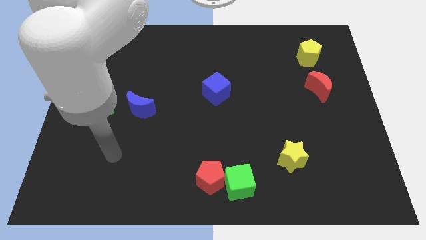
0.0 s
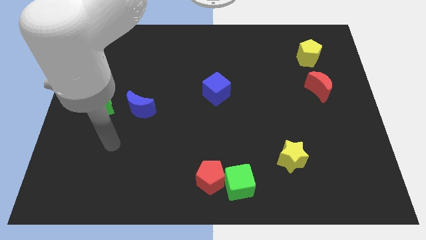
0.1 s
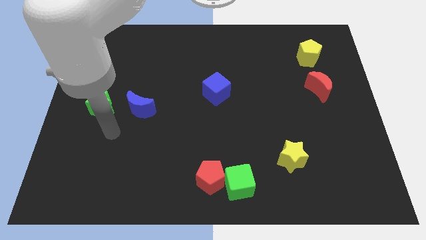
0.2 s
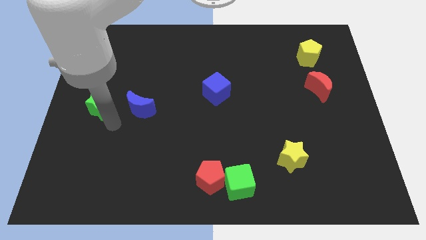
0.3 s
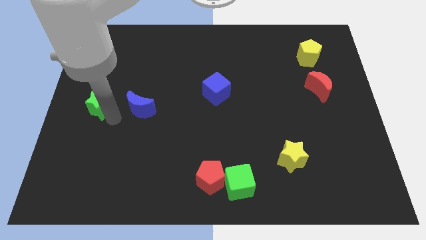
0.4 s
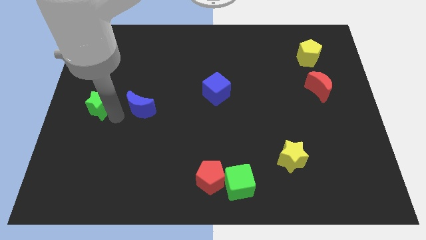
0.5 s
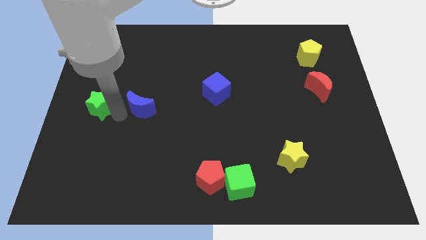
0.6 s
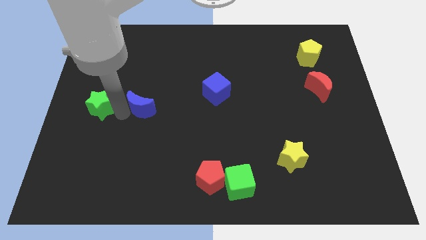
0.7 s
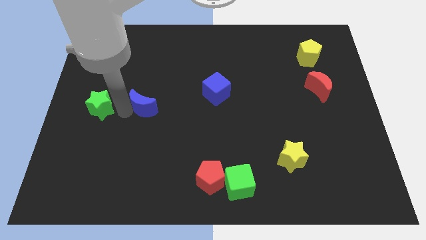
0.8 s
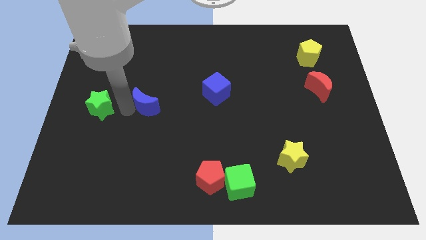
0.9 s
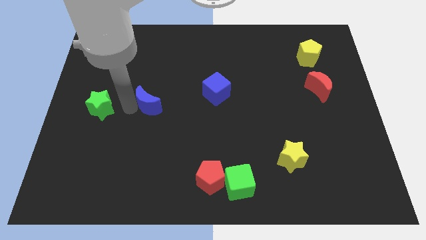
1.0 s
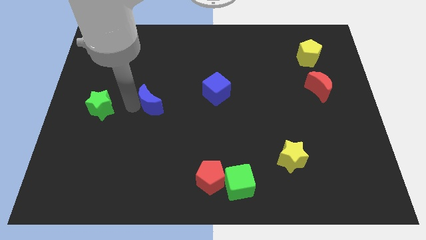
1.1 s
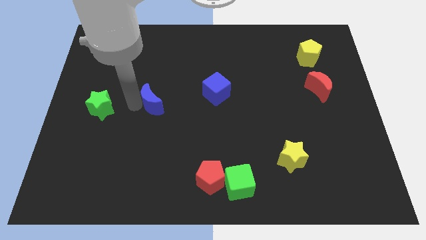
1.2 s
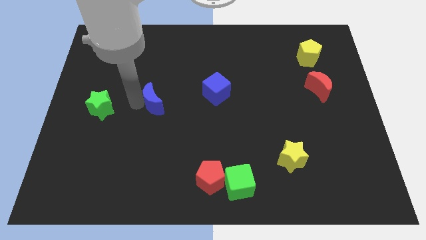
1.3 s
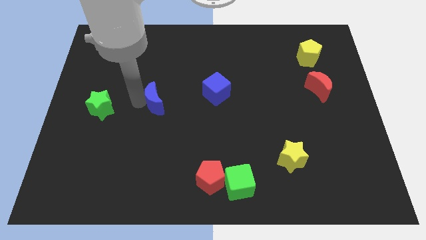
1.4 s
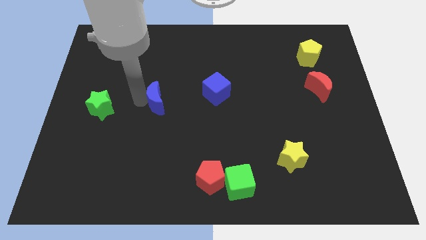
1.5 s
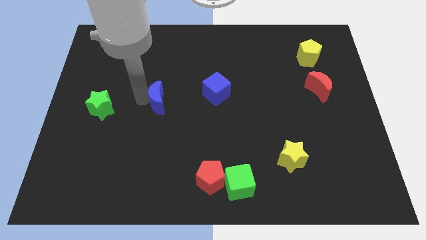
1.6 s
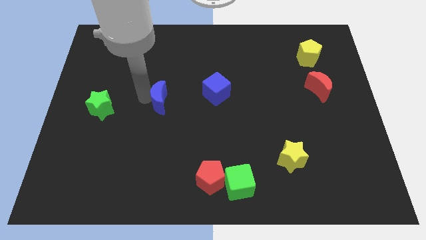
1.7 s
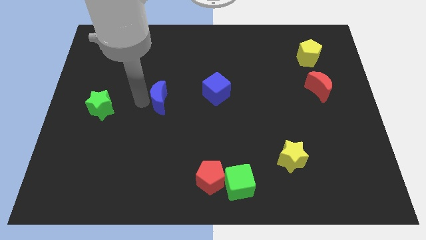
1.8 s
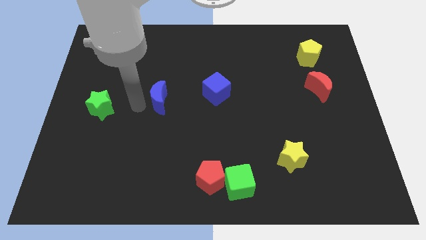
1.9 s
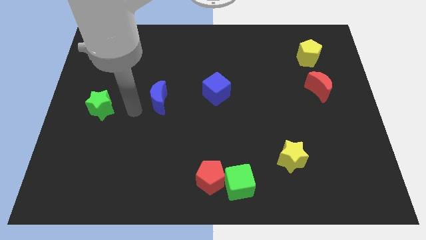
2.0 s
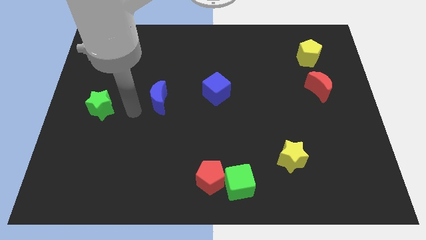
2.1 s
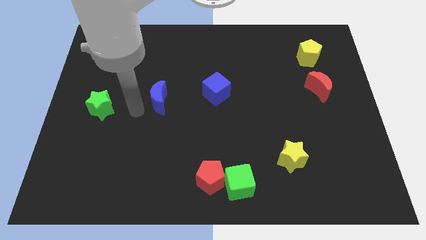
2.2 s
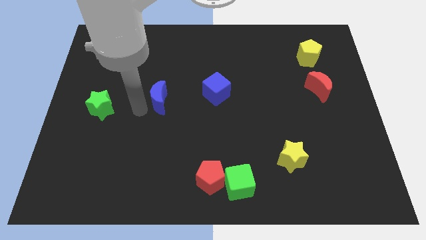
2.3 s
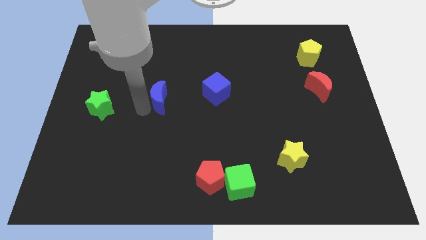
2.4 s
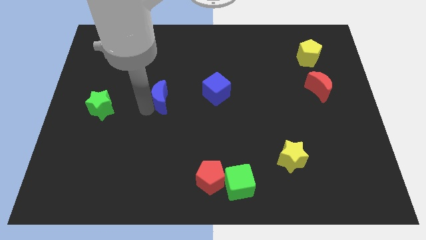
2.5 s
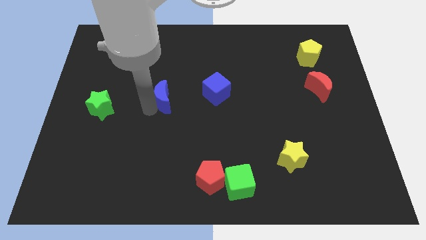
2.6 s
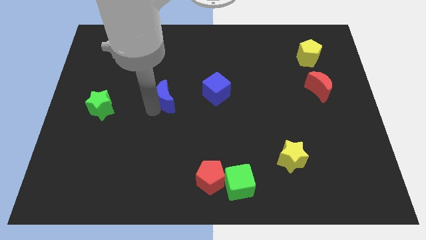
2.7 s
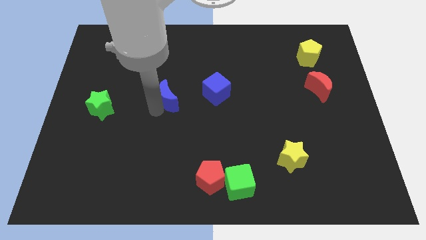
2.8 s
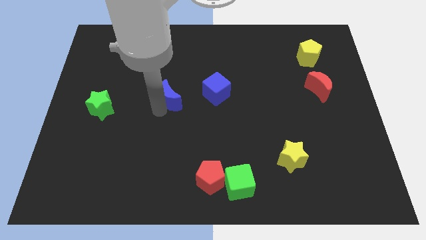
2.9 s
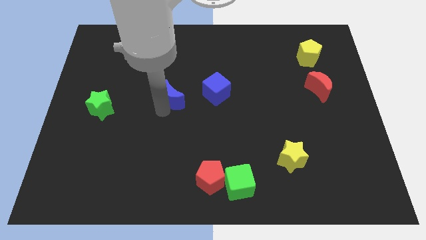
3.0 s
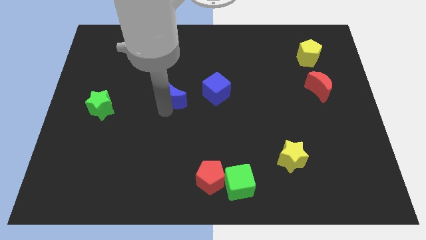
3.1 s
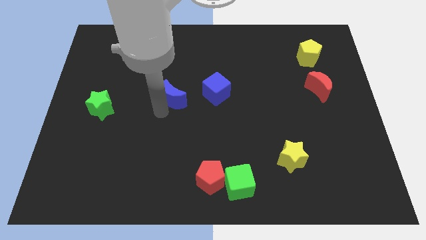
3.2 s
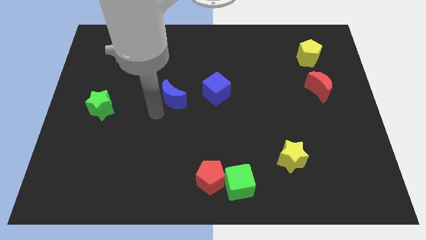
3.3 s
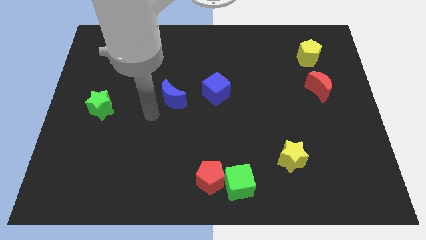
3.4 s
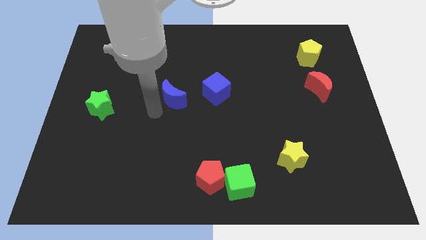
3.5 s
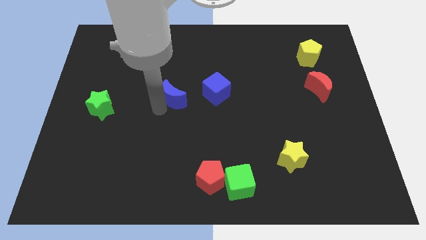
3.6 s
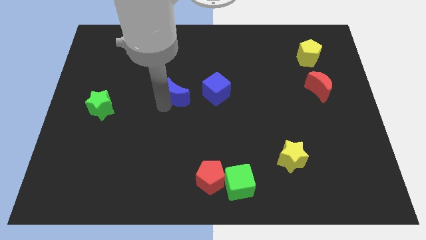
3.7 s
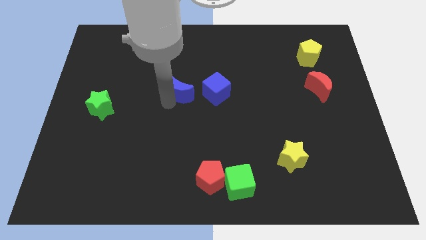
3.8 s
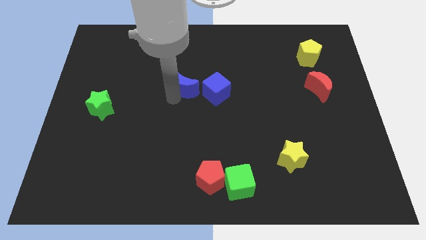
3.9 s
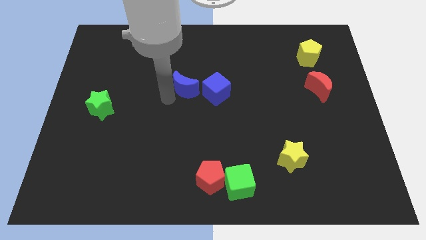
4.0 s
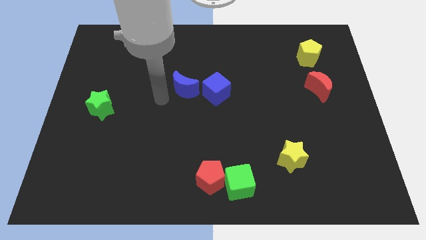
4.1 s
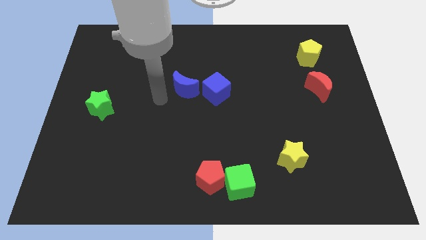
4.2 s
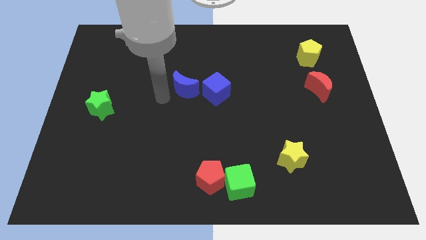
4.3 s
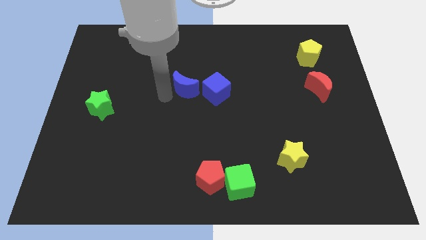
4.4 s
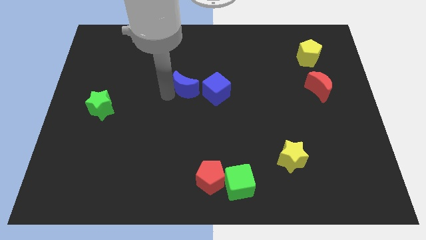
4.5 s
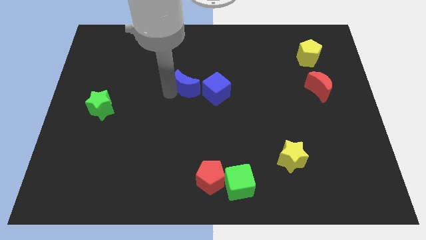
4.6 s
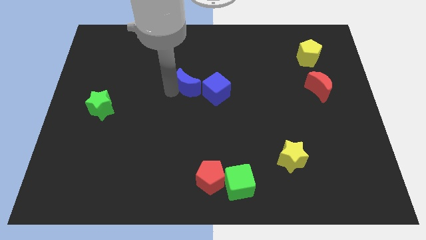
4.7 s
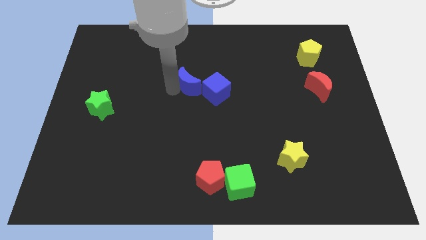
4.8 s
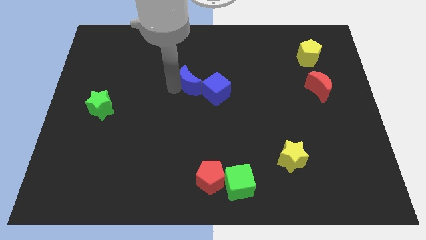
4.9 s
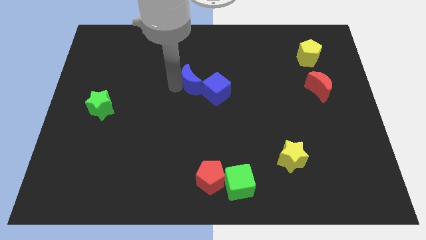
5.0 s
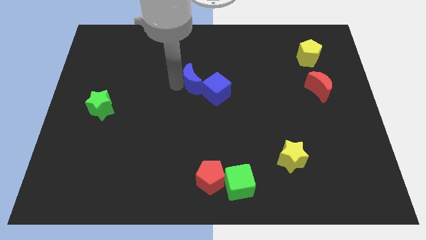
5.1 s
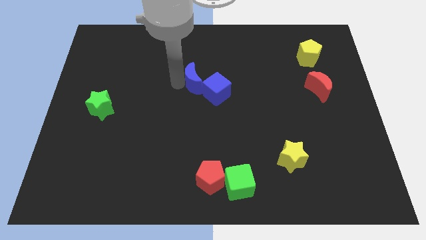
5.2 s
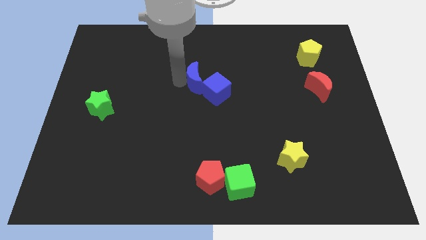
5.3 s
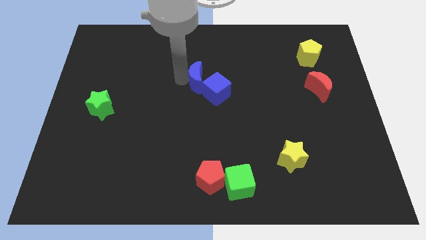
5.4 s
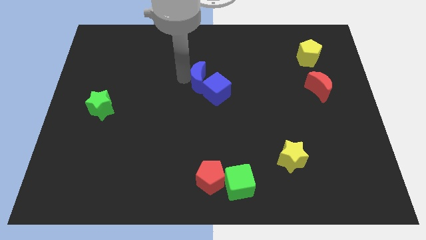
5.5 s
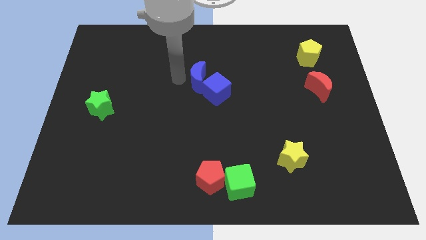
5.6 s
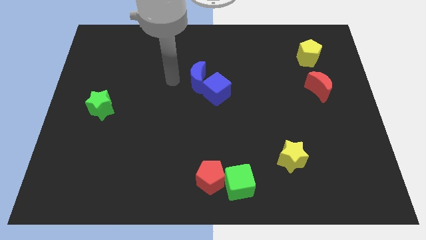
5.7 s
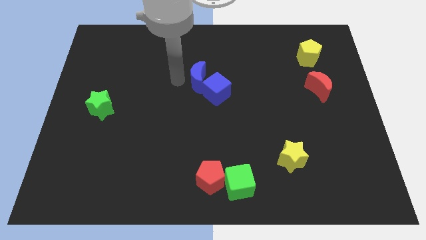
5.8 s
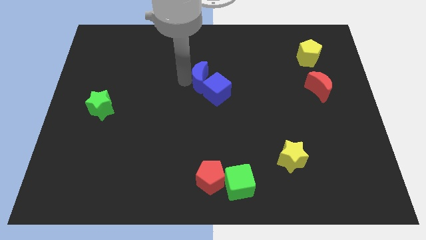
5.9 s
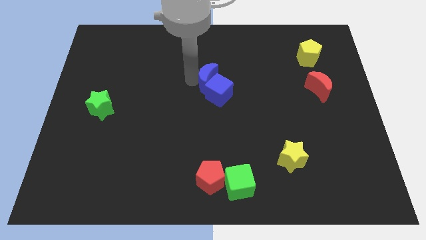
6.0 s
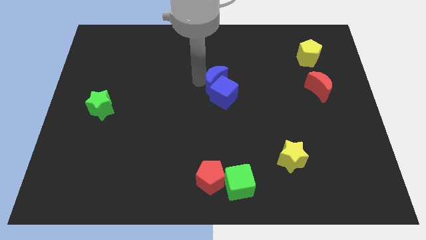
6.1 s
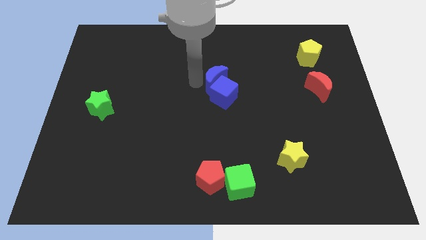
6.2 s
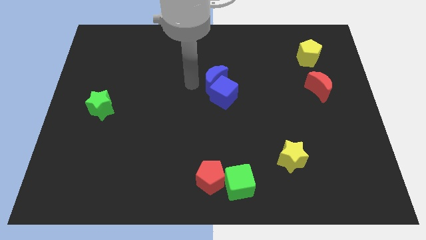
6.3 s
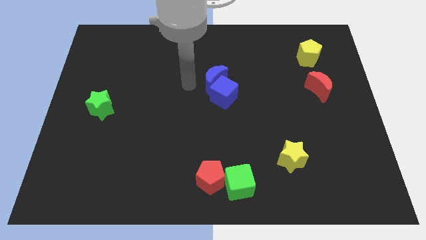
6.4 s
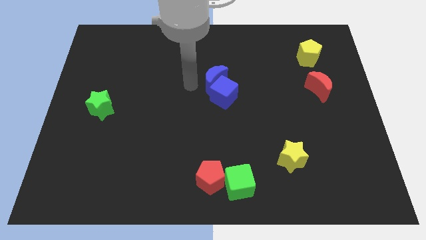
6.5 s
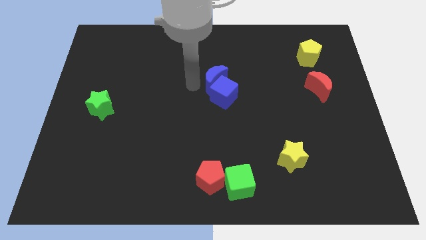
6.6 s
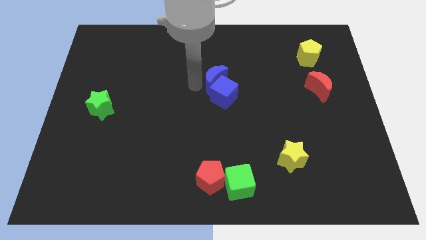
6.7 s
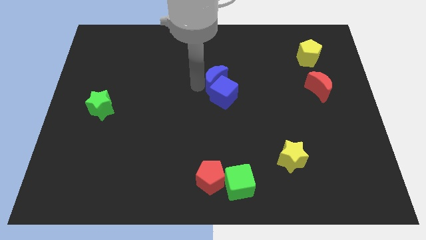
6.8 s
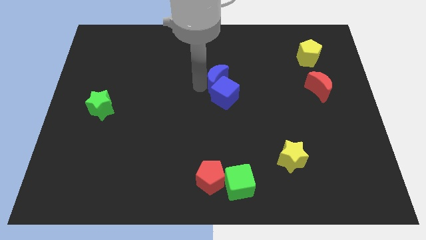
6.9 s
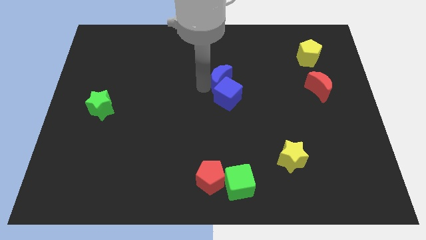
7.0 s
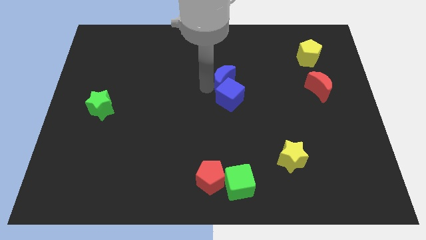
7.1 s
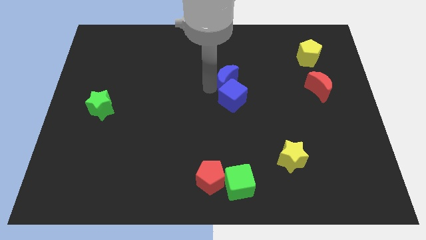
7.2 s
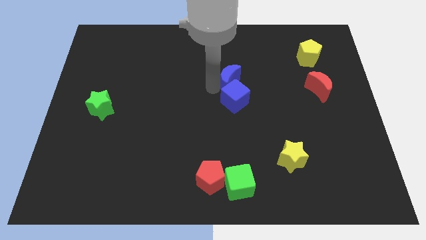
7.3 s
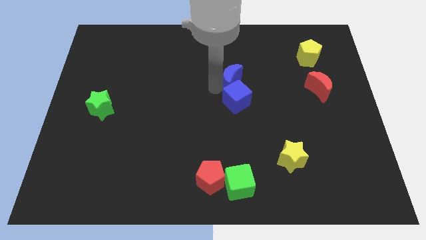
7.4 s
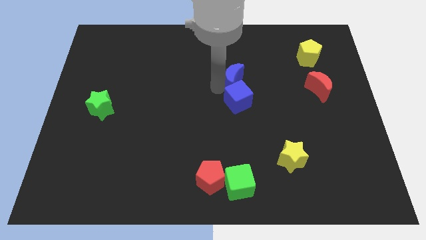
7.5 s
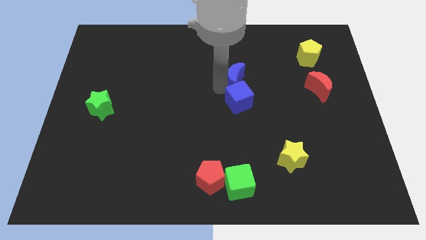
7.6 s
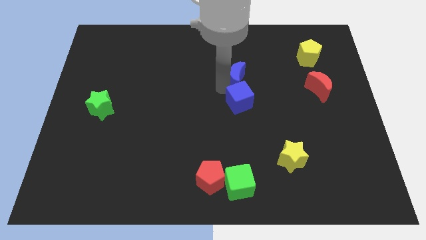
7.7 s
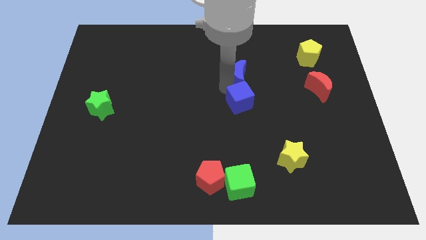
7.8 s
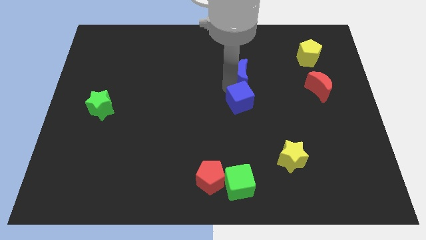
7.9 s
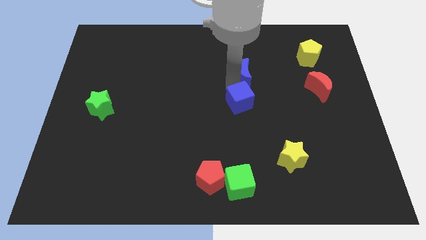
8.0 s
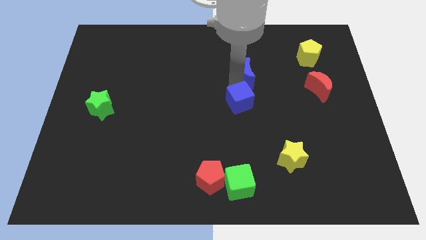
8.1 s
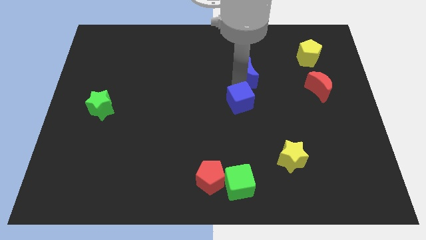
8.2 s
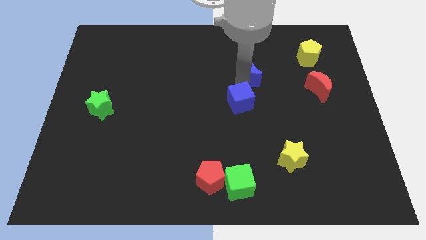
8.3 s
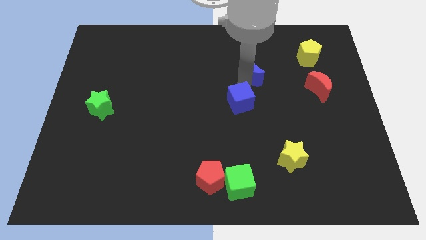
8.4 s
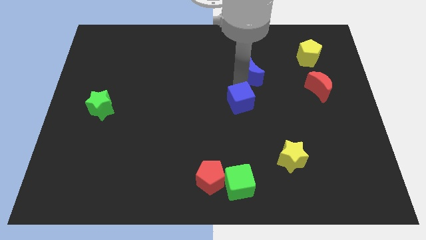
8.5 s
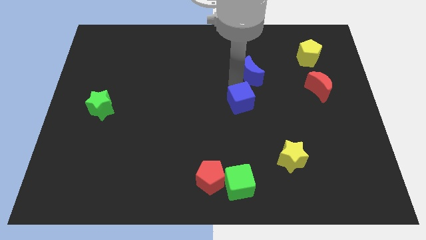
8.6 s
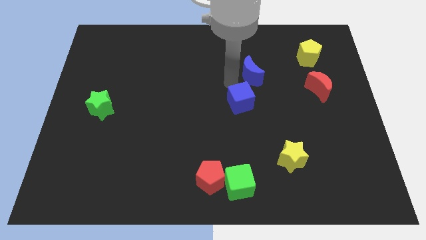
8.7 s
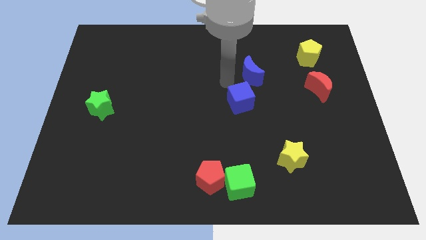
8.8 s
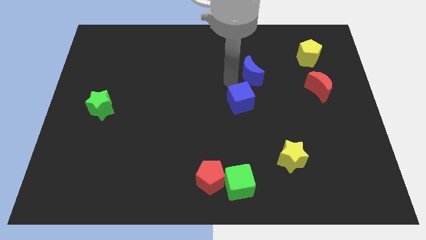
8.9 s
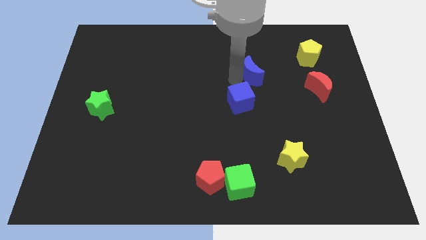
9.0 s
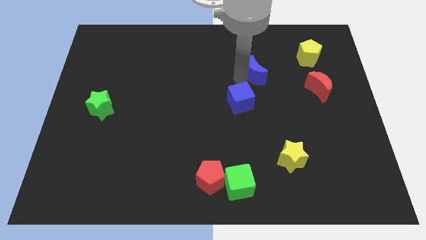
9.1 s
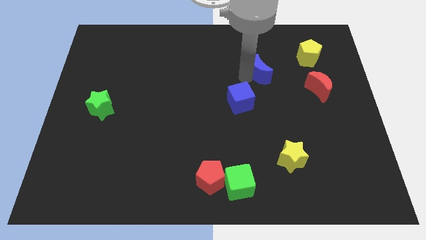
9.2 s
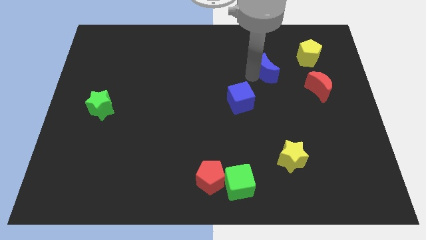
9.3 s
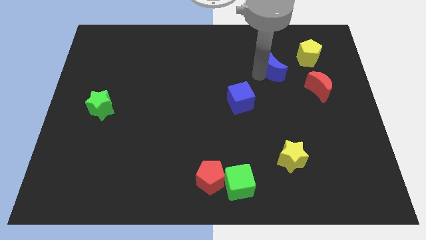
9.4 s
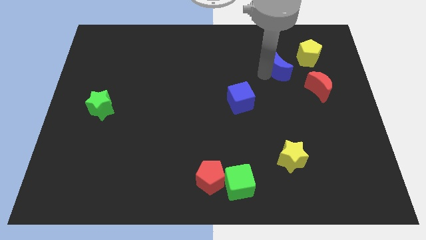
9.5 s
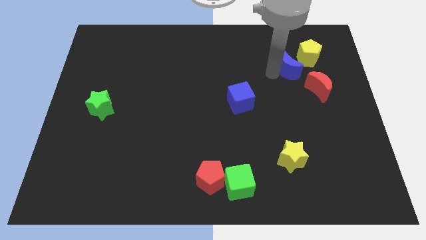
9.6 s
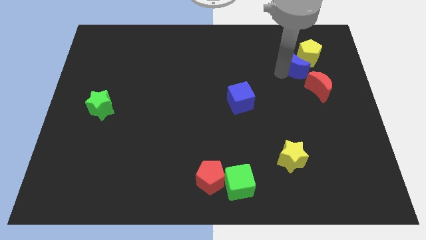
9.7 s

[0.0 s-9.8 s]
slide the blue moon towards the yellow pentagon
